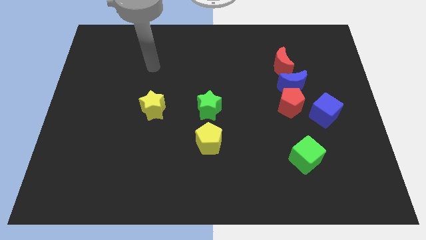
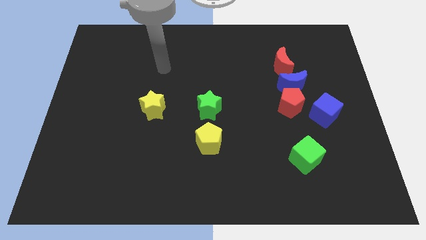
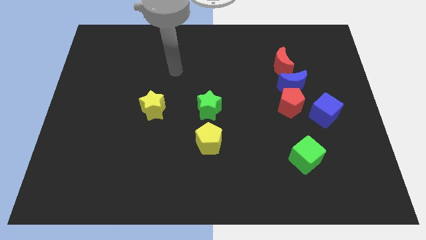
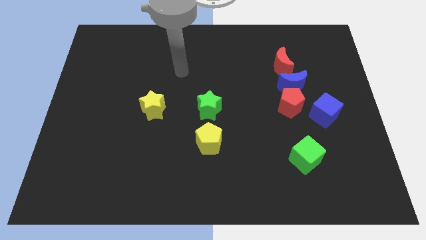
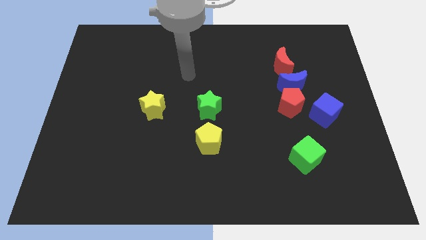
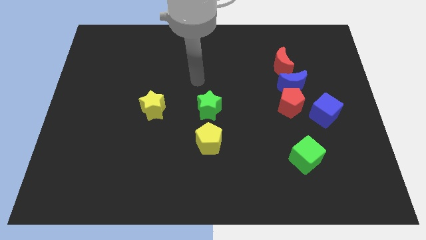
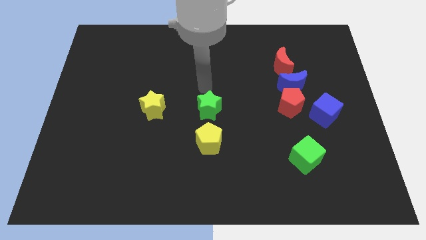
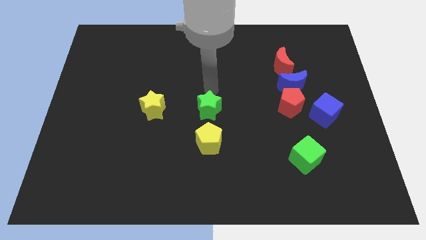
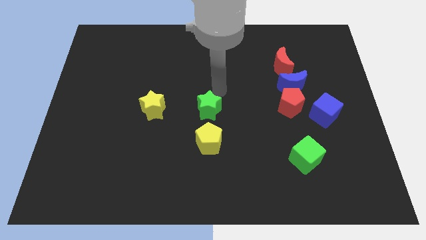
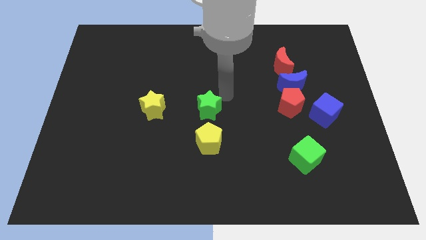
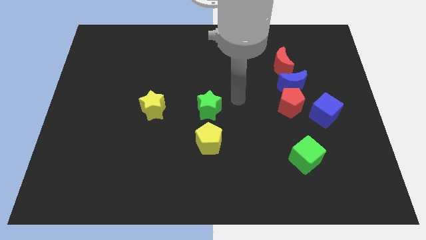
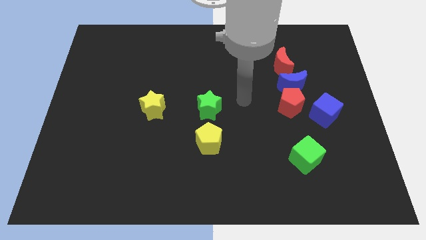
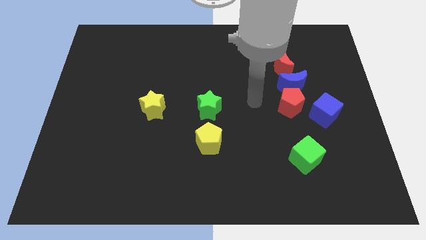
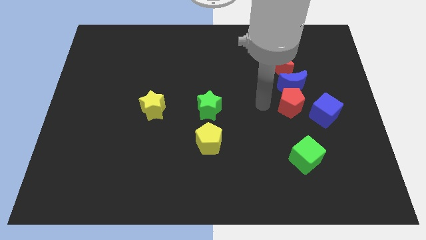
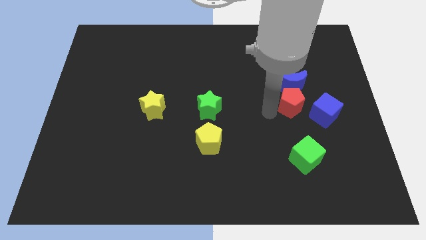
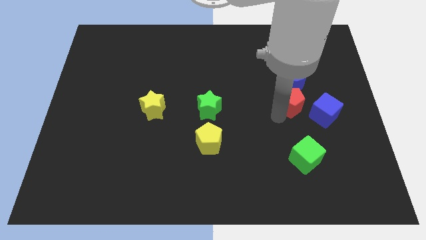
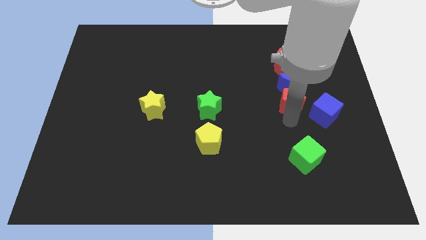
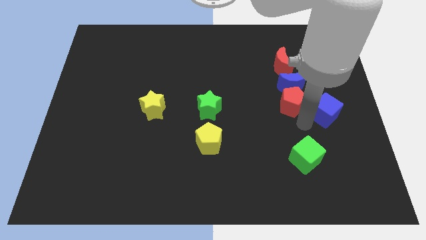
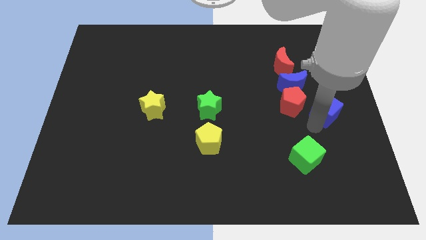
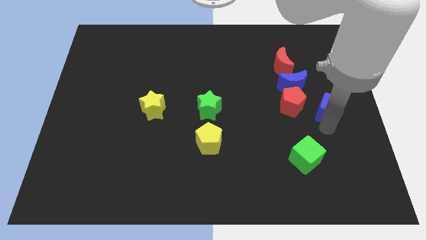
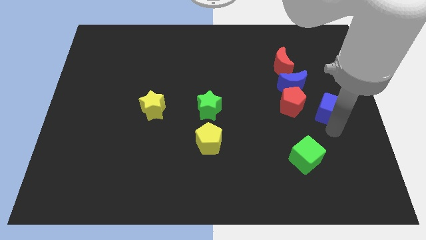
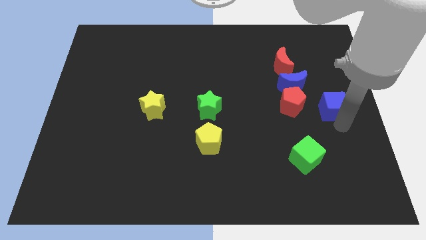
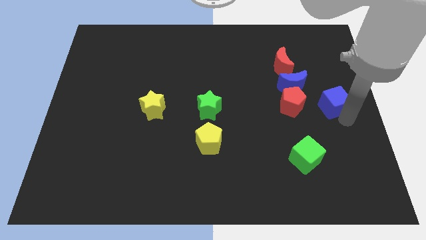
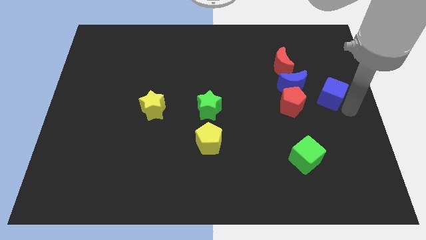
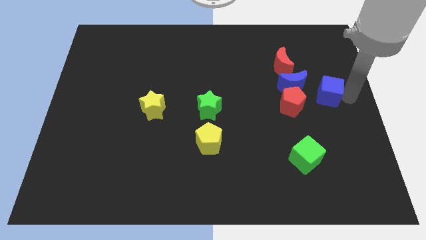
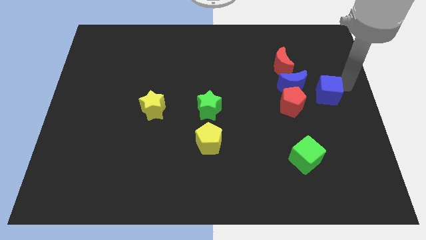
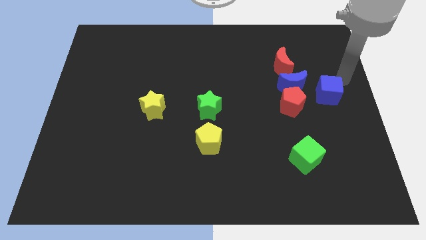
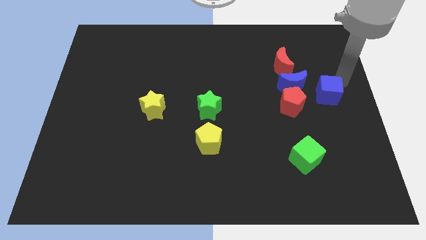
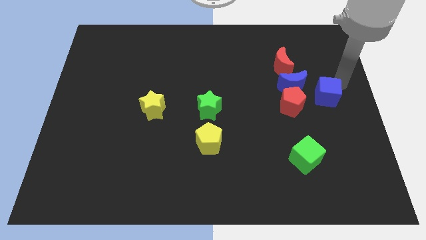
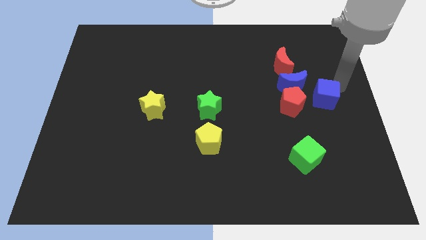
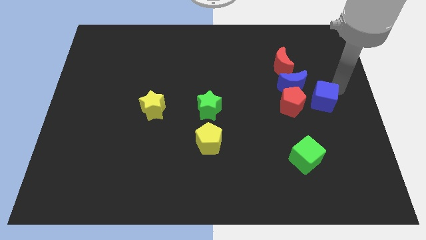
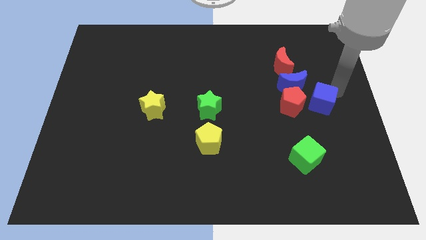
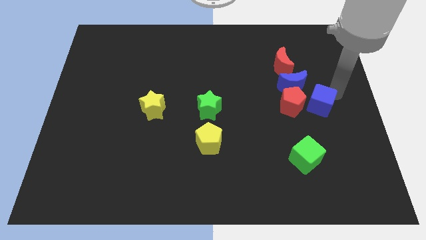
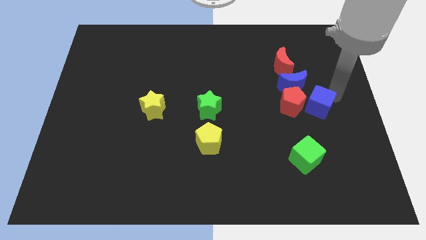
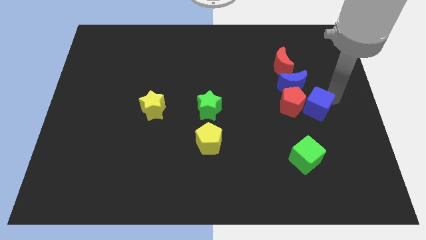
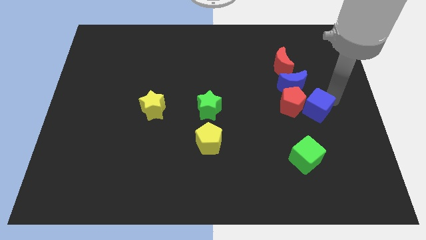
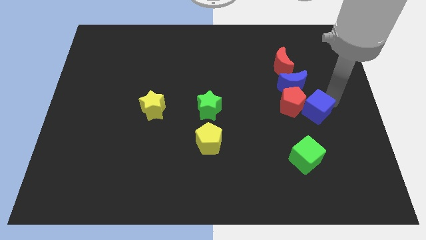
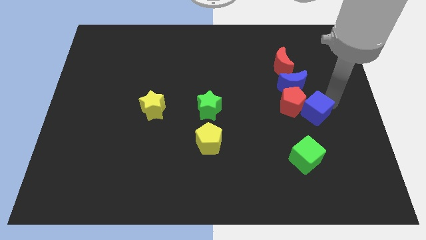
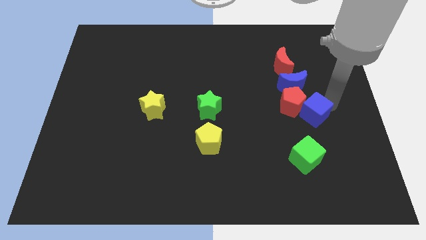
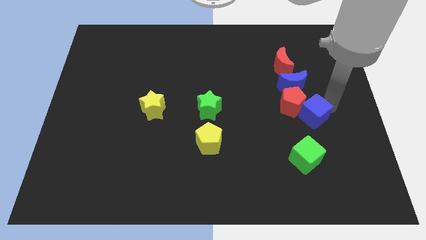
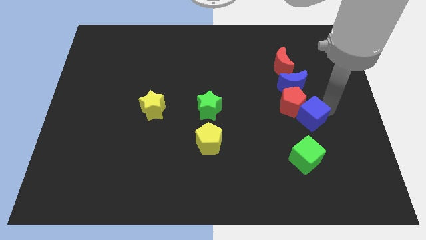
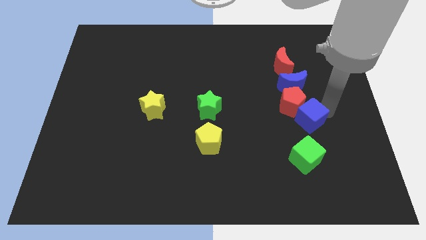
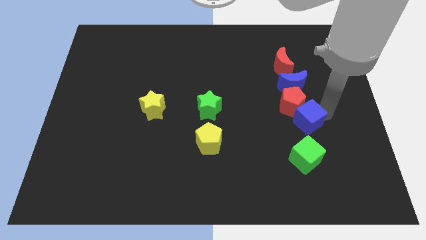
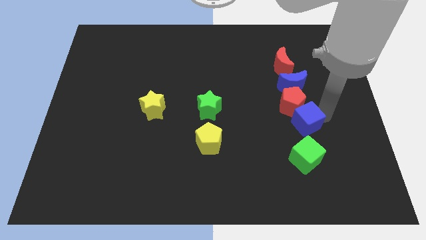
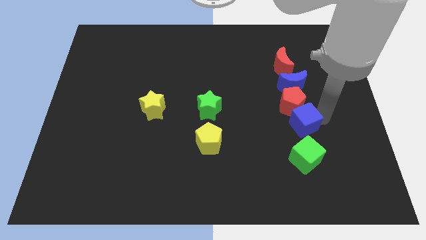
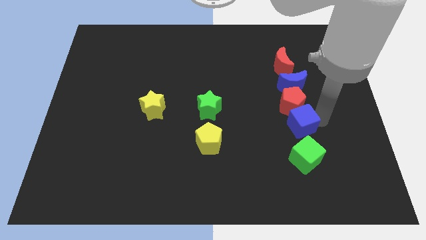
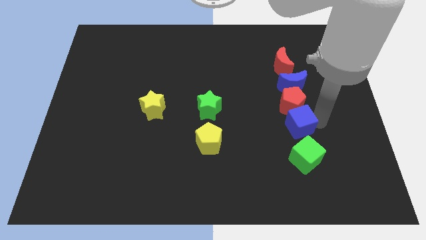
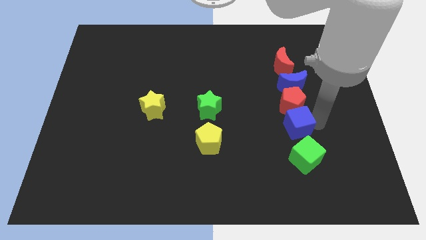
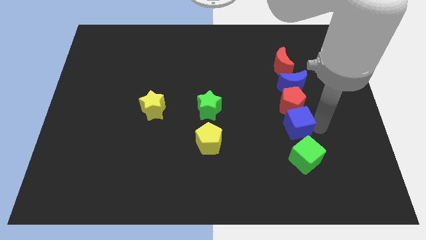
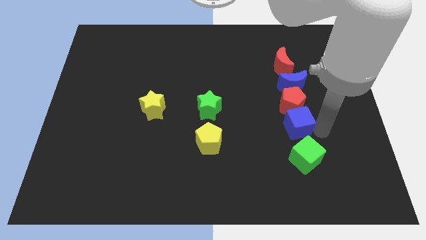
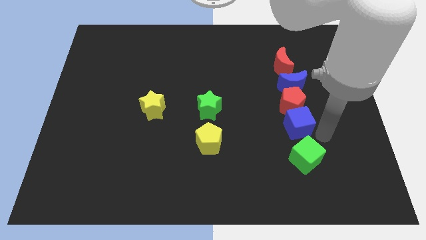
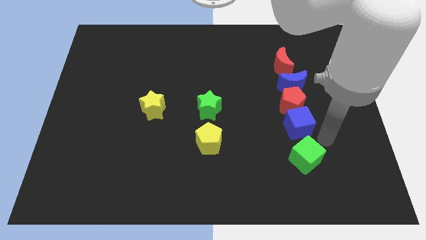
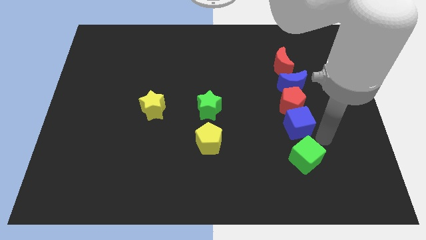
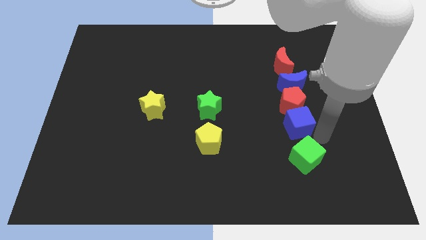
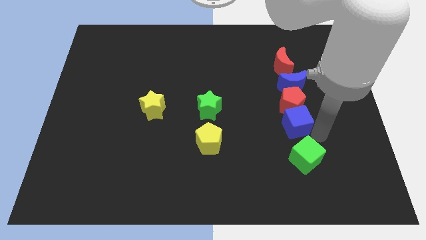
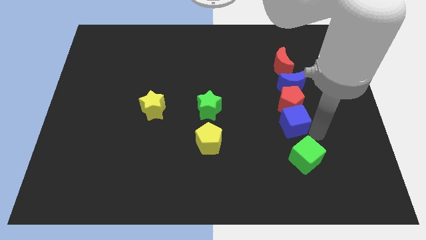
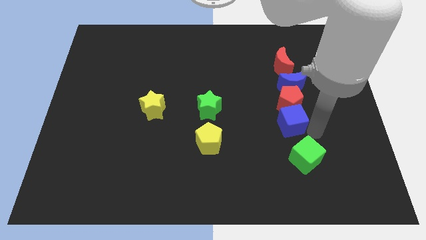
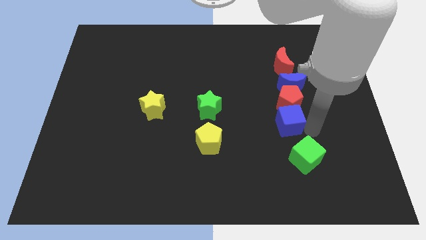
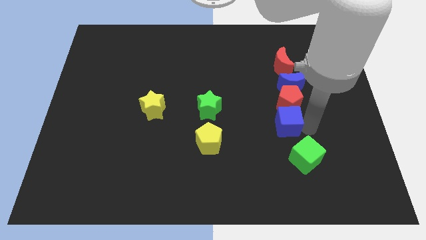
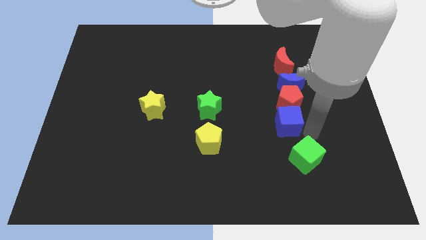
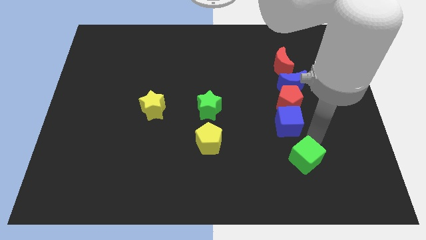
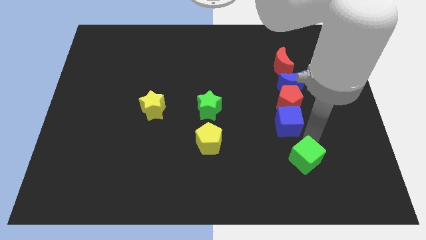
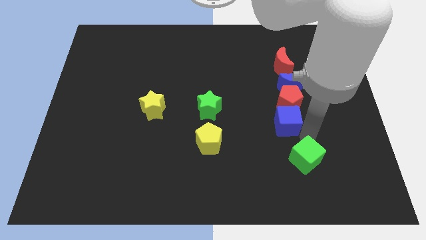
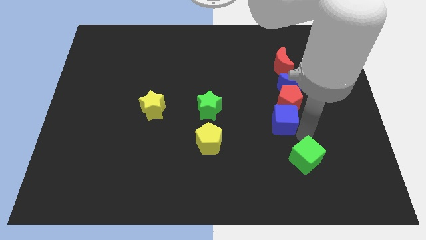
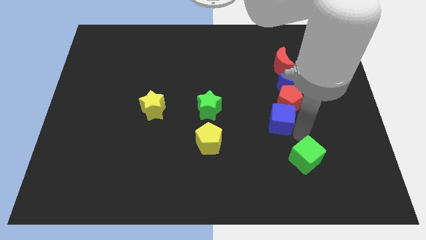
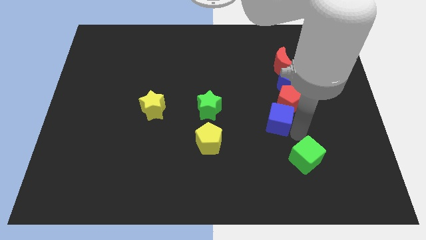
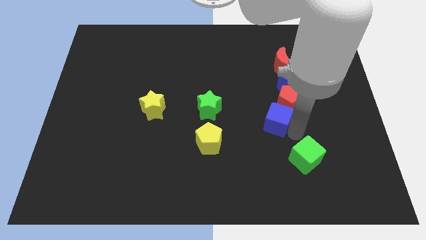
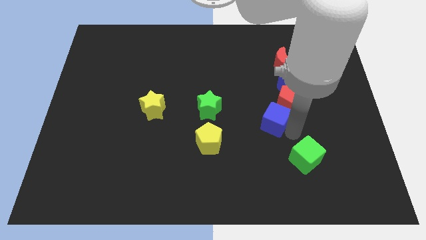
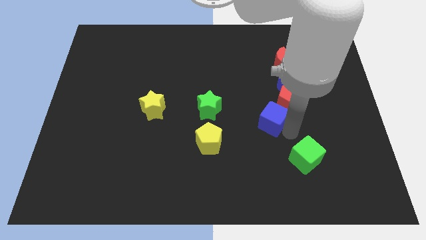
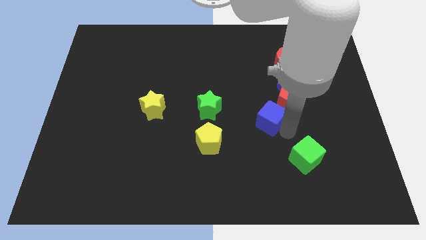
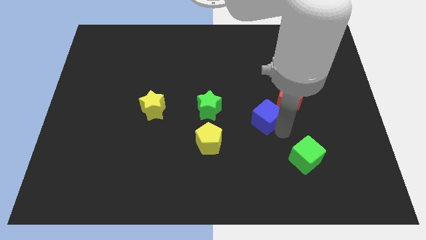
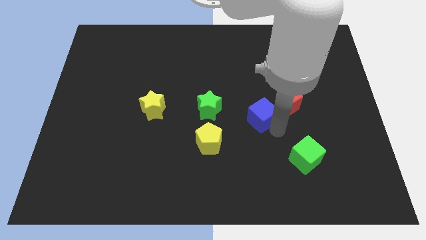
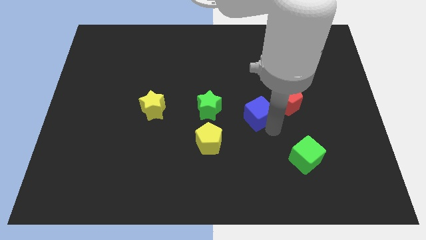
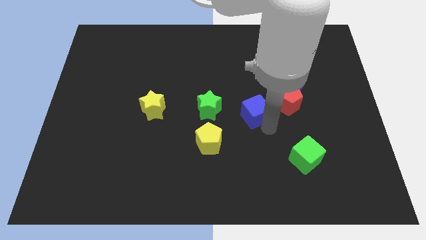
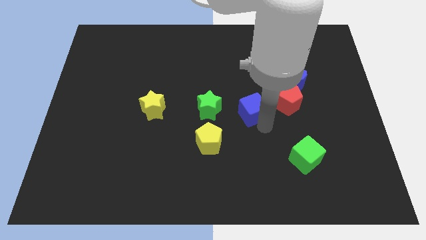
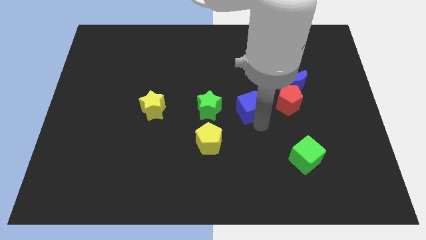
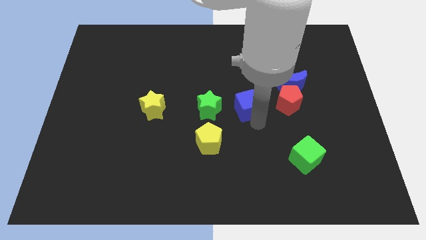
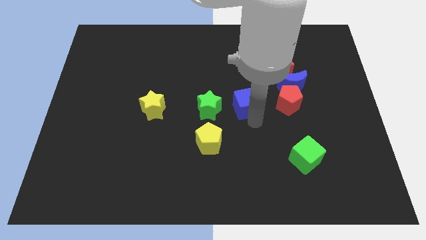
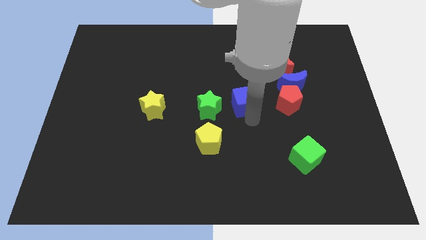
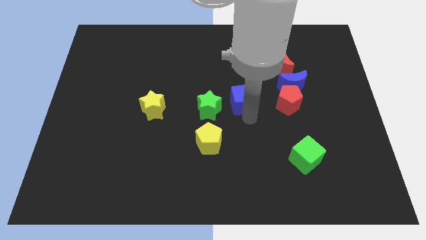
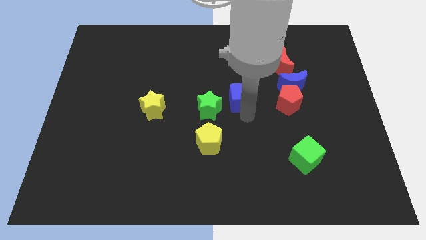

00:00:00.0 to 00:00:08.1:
slide the blue cube to the left side of the blue moon
